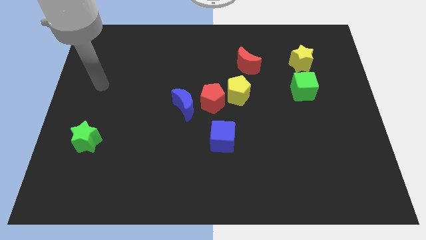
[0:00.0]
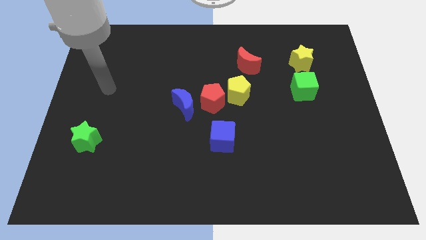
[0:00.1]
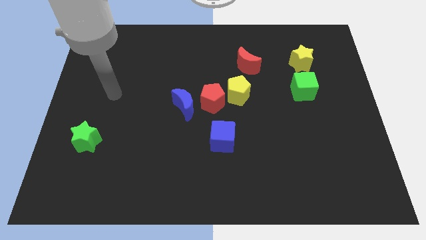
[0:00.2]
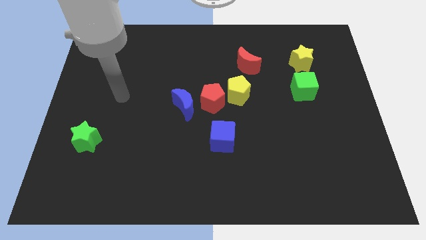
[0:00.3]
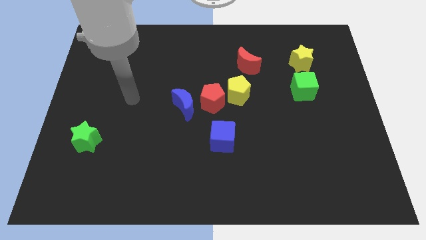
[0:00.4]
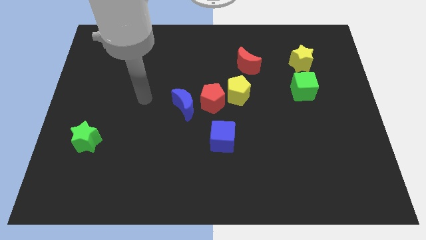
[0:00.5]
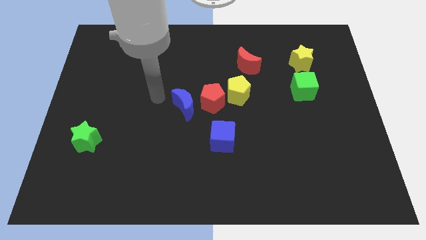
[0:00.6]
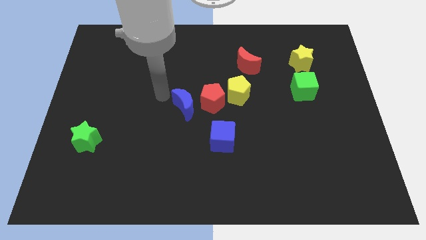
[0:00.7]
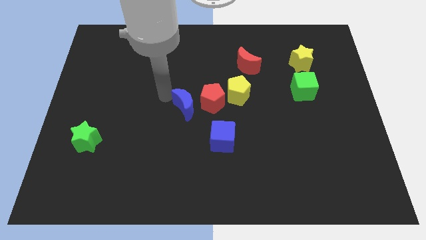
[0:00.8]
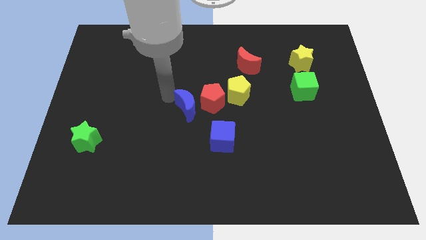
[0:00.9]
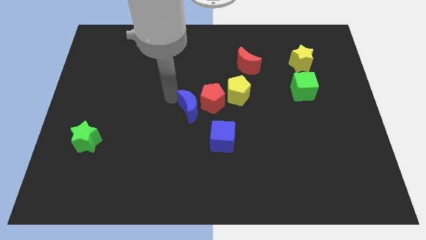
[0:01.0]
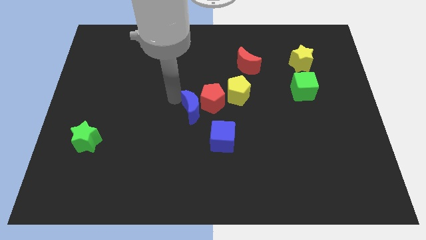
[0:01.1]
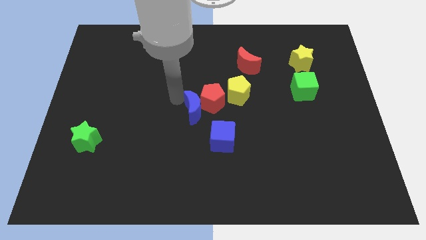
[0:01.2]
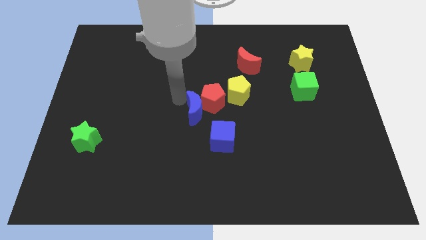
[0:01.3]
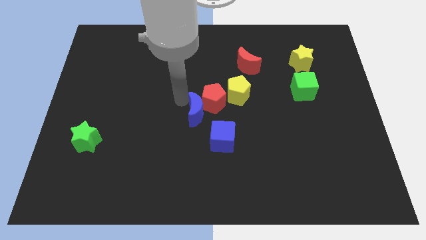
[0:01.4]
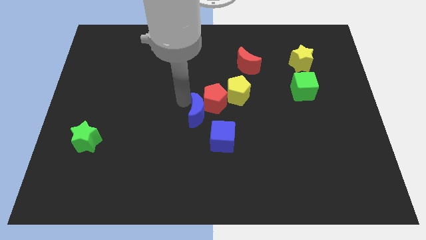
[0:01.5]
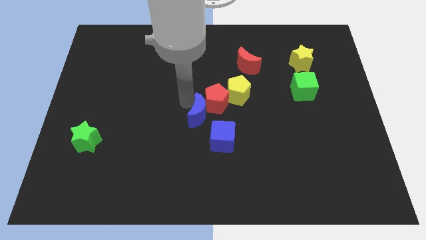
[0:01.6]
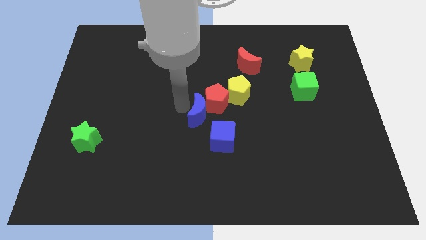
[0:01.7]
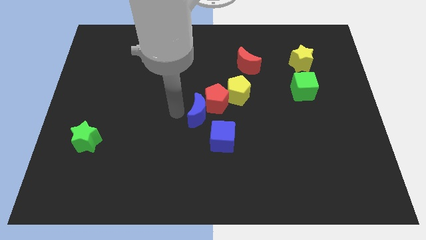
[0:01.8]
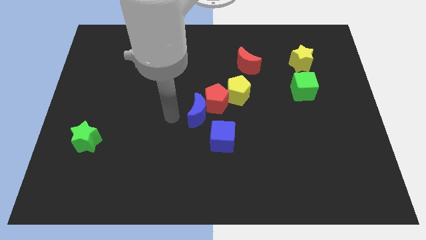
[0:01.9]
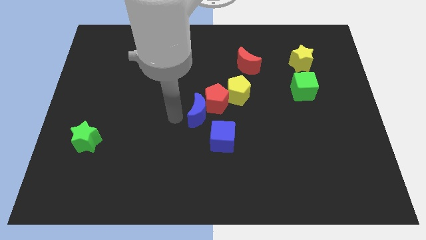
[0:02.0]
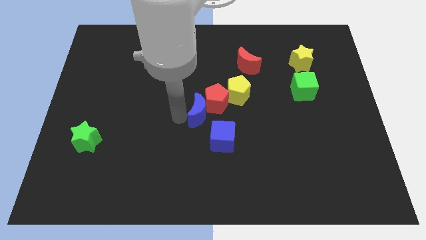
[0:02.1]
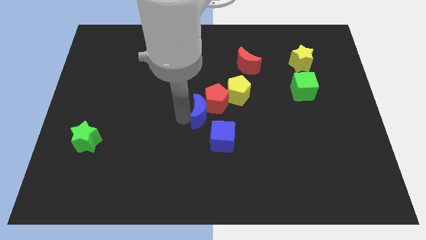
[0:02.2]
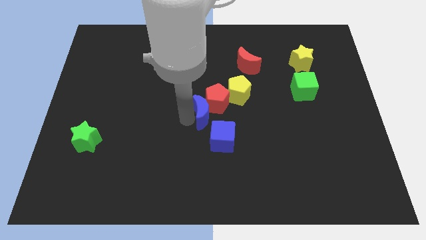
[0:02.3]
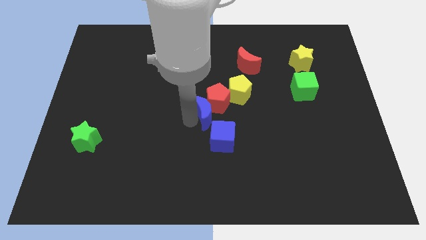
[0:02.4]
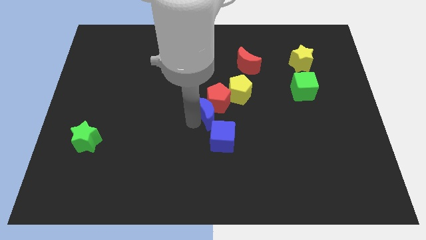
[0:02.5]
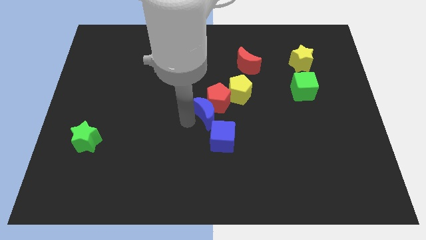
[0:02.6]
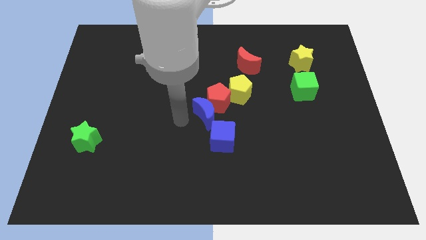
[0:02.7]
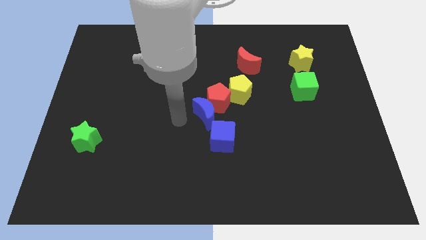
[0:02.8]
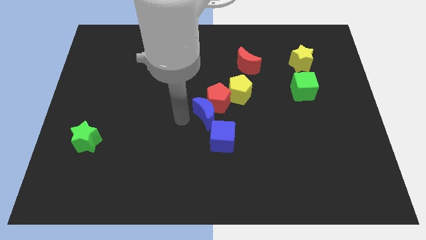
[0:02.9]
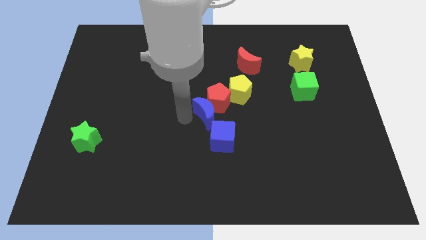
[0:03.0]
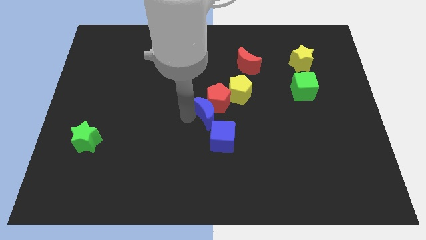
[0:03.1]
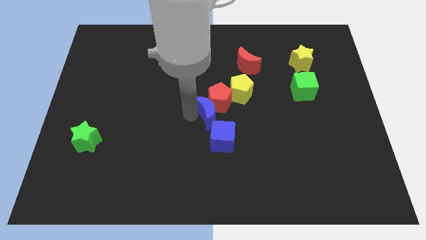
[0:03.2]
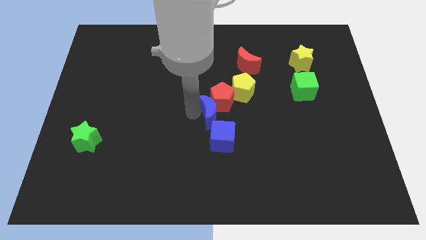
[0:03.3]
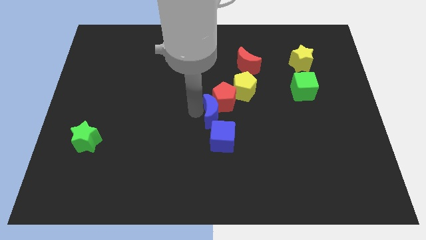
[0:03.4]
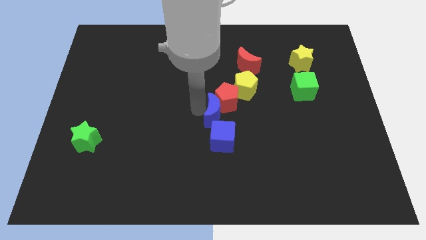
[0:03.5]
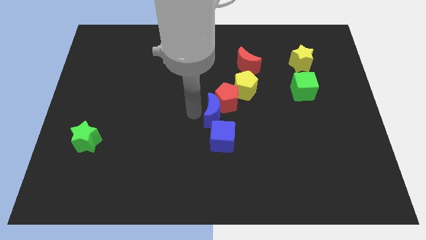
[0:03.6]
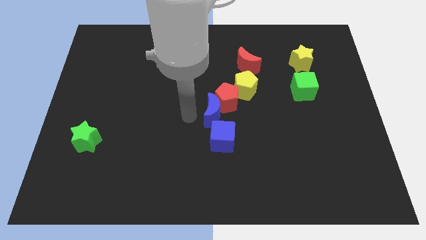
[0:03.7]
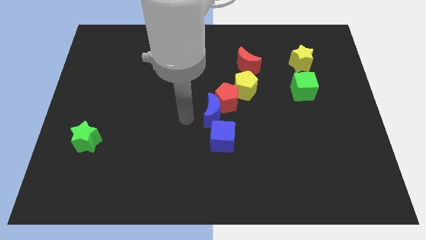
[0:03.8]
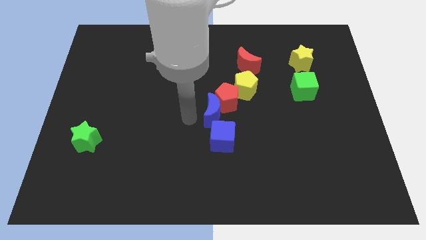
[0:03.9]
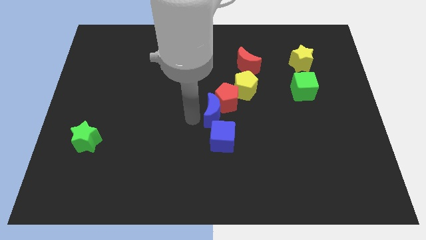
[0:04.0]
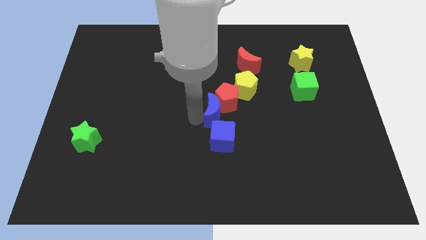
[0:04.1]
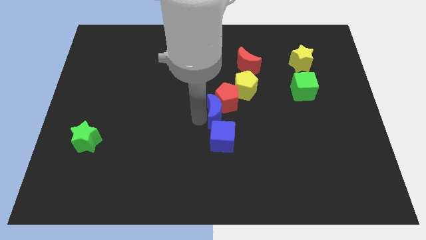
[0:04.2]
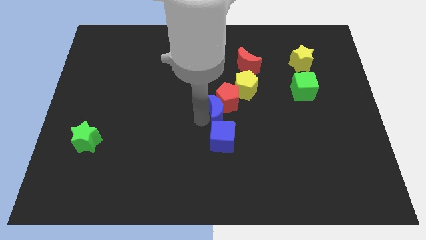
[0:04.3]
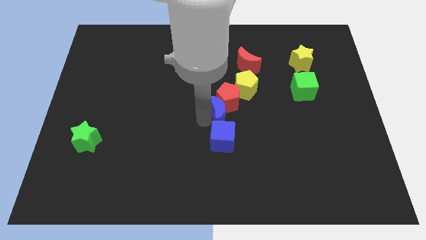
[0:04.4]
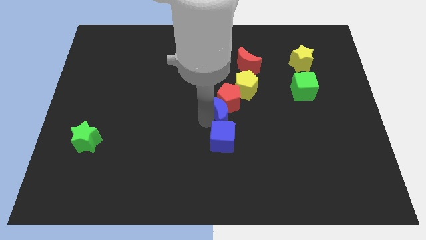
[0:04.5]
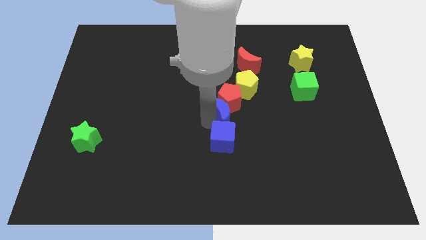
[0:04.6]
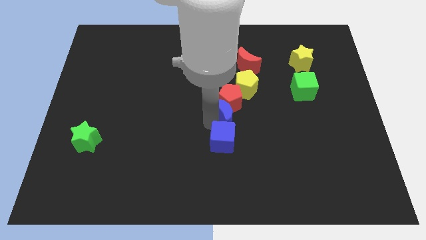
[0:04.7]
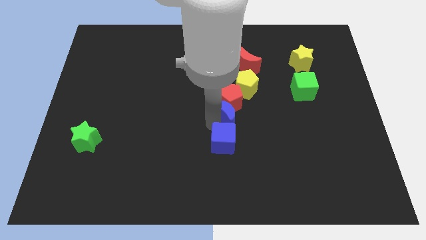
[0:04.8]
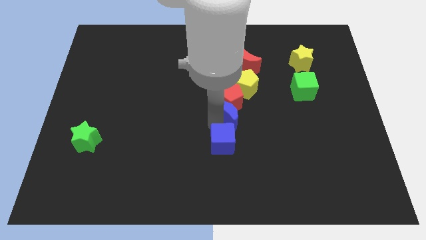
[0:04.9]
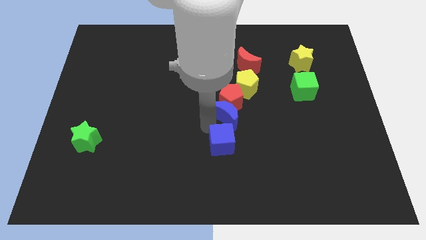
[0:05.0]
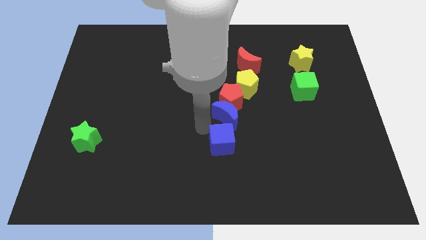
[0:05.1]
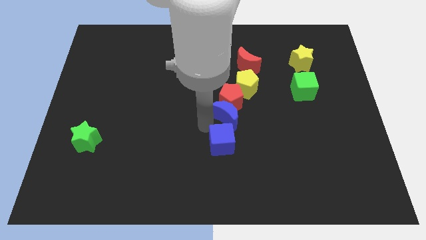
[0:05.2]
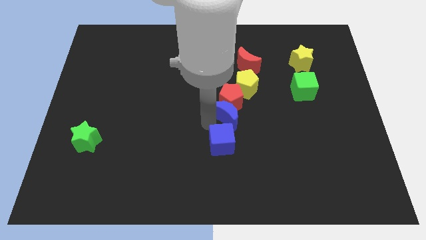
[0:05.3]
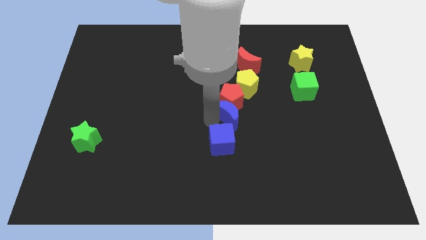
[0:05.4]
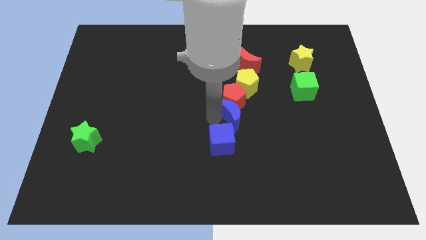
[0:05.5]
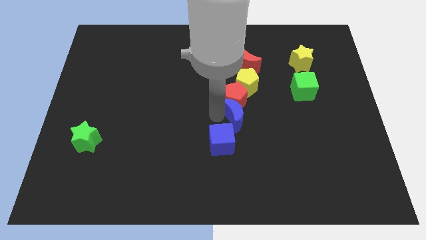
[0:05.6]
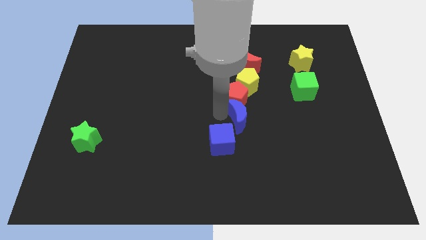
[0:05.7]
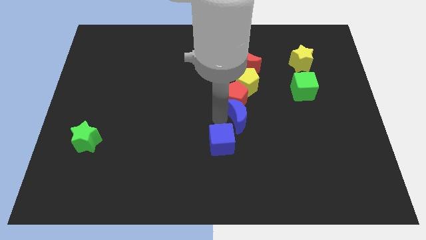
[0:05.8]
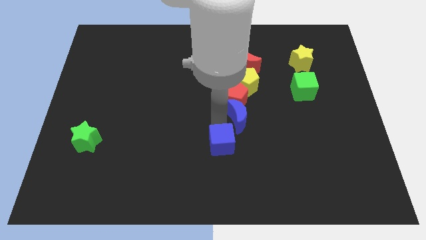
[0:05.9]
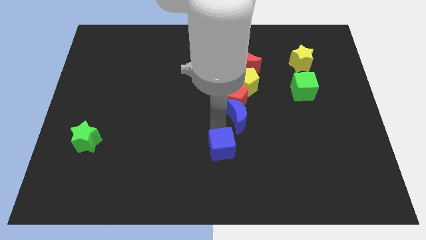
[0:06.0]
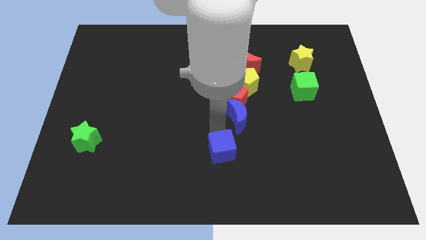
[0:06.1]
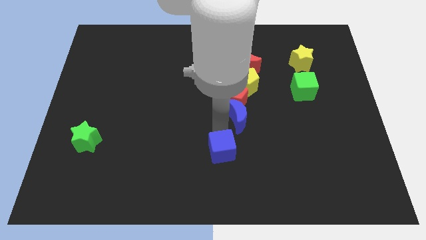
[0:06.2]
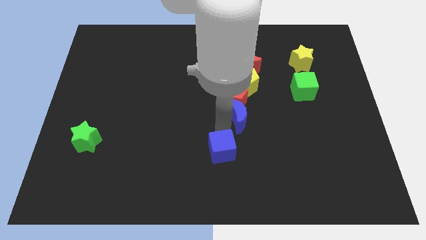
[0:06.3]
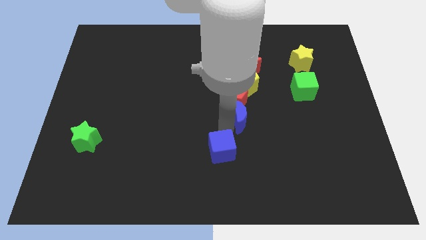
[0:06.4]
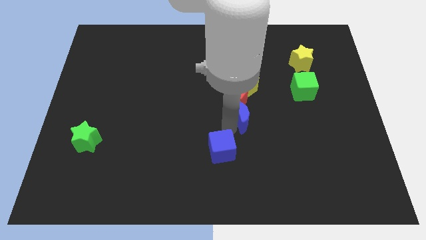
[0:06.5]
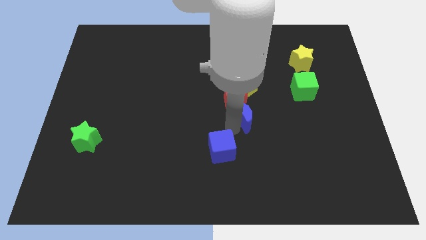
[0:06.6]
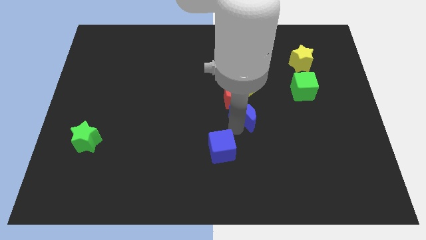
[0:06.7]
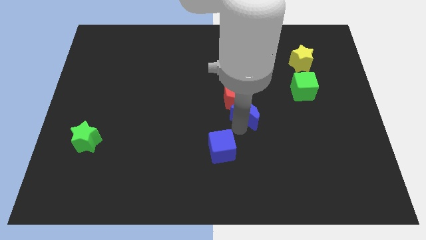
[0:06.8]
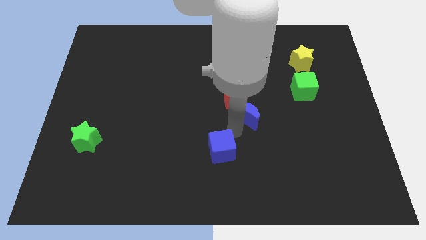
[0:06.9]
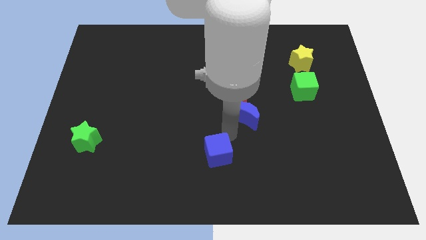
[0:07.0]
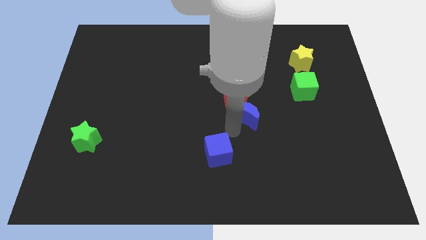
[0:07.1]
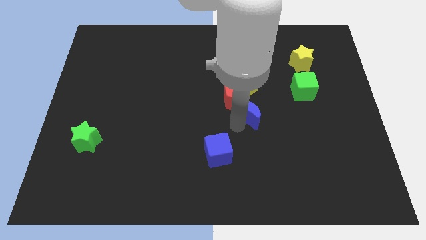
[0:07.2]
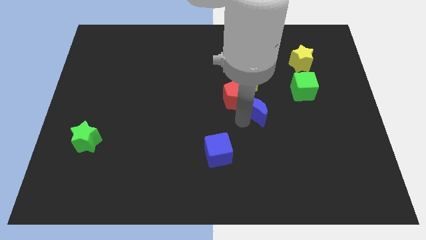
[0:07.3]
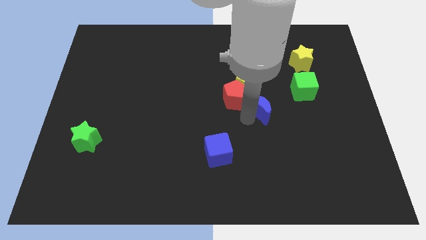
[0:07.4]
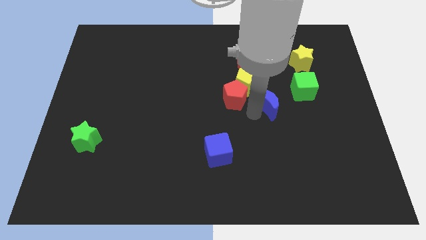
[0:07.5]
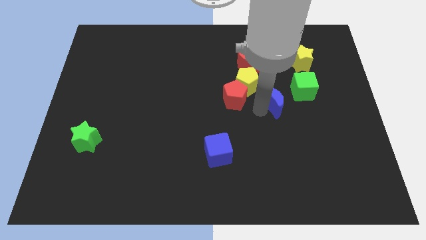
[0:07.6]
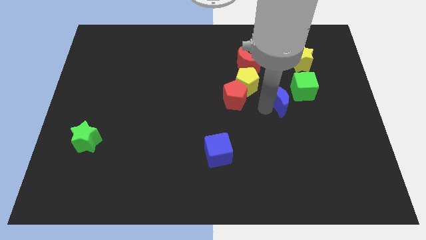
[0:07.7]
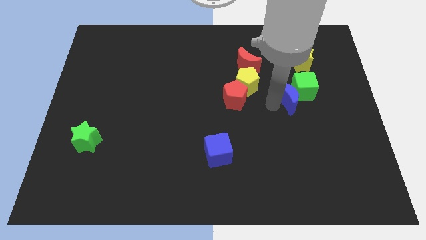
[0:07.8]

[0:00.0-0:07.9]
slide the blue moon to the green cube
